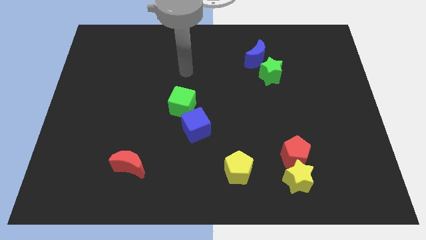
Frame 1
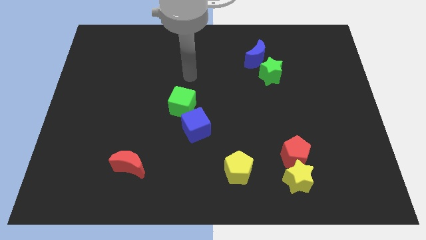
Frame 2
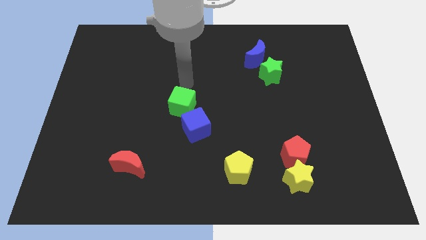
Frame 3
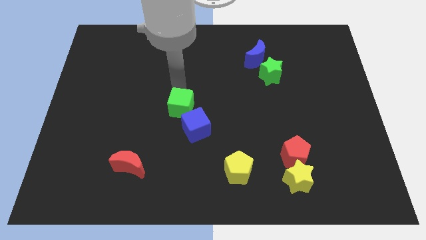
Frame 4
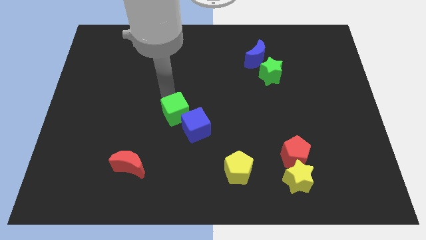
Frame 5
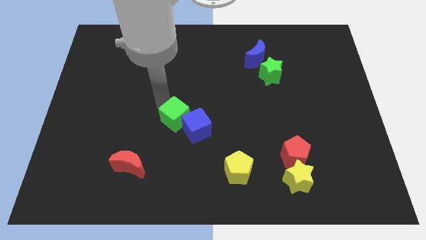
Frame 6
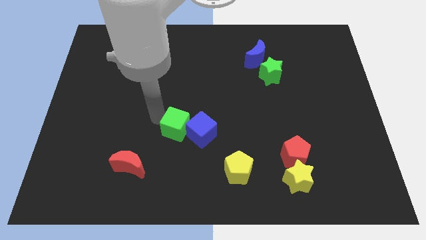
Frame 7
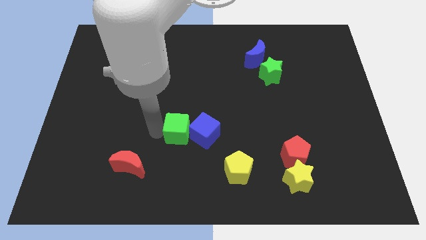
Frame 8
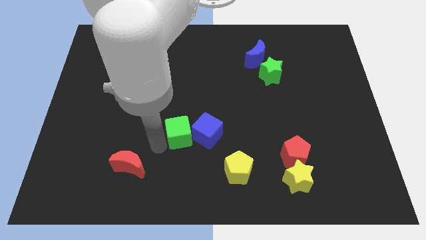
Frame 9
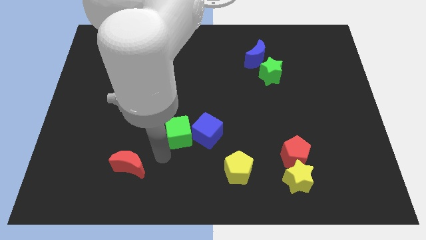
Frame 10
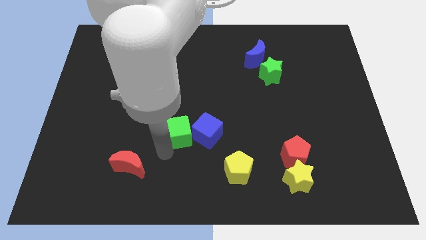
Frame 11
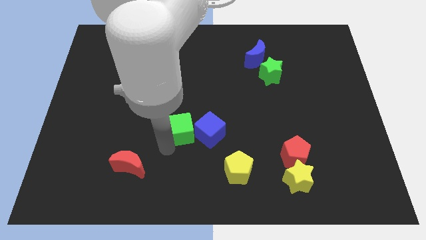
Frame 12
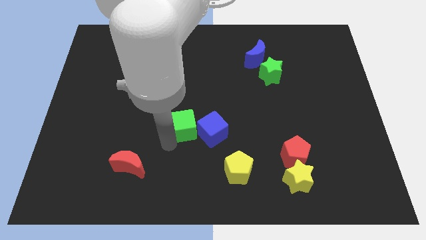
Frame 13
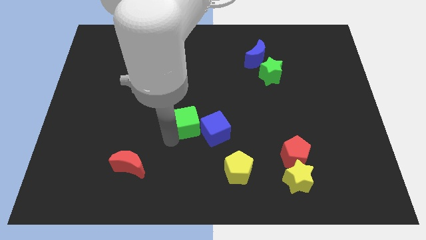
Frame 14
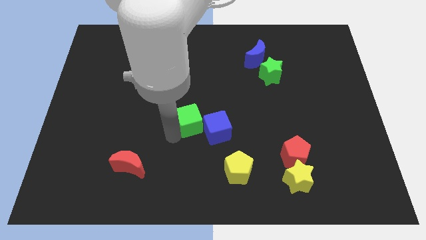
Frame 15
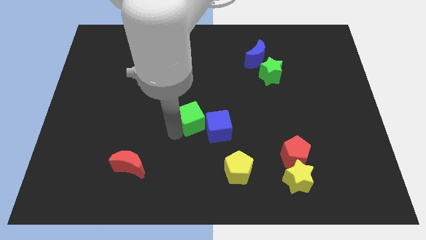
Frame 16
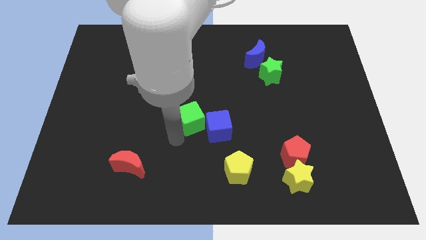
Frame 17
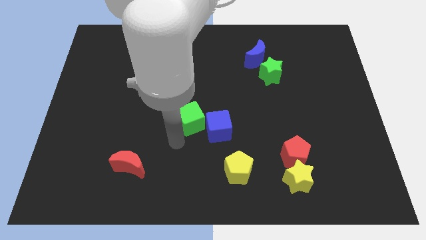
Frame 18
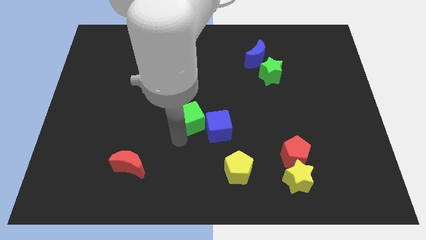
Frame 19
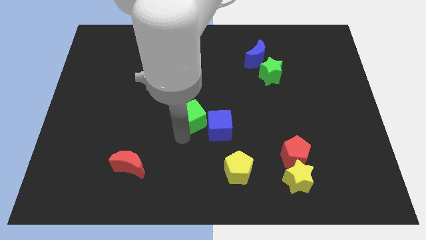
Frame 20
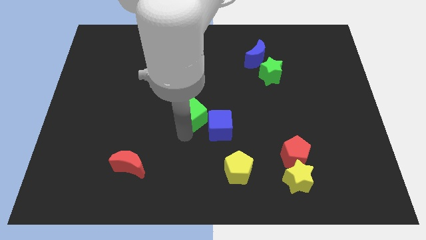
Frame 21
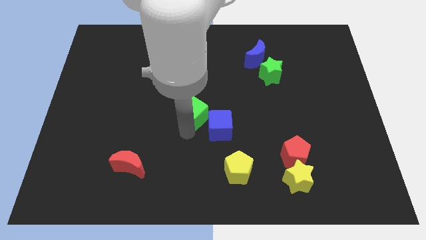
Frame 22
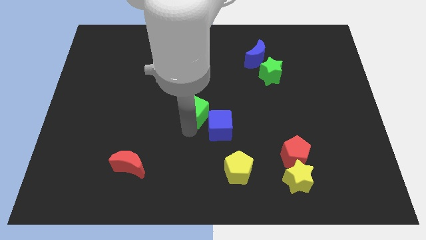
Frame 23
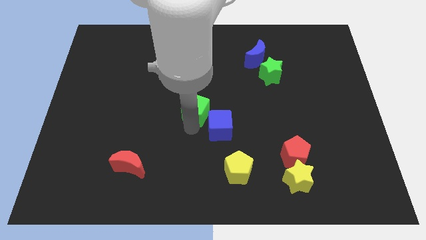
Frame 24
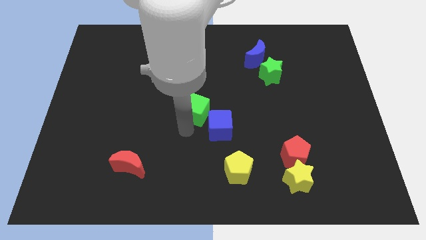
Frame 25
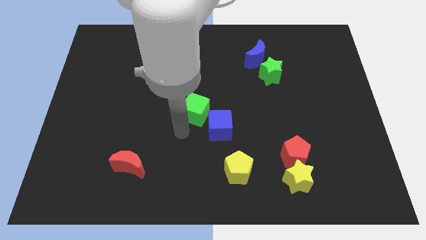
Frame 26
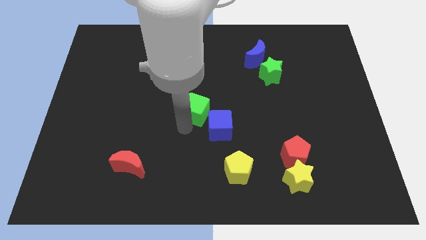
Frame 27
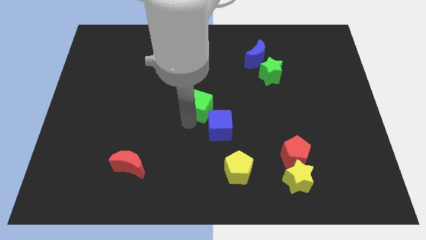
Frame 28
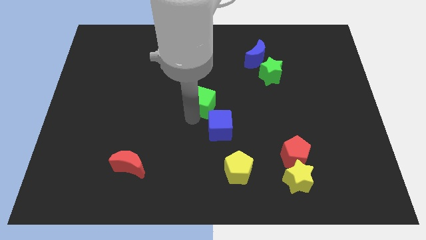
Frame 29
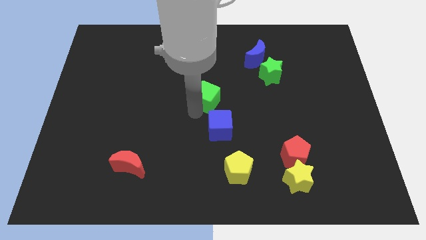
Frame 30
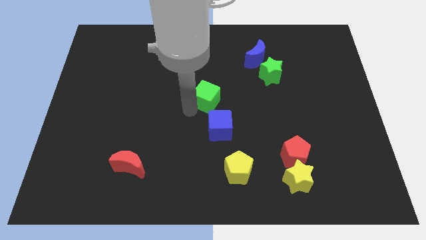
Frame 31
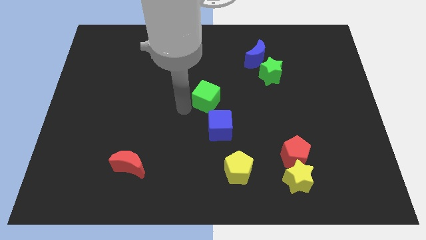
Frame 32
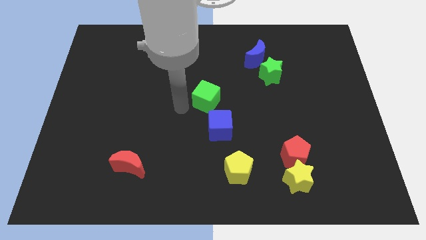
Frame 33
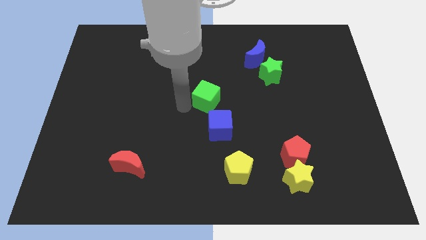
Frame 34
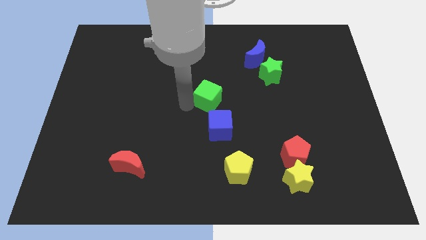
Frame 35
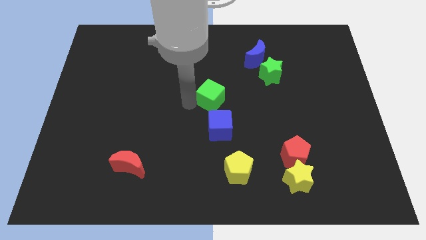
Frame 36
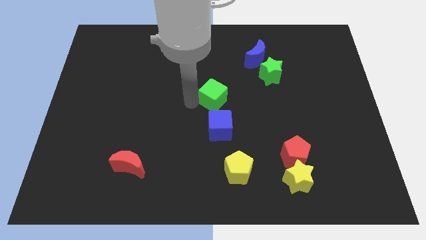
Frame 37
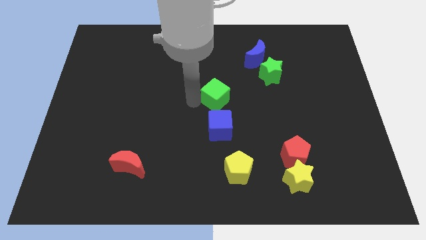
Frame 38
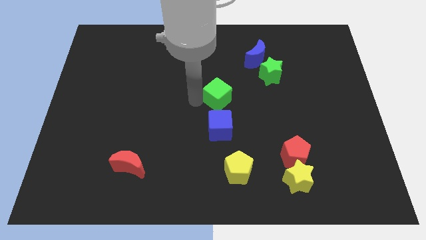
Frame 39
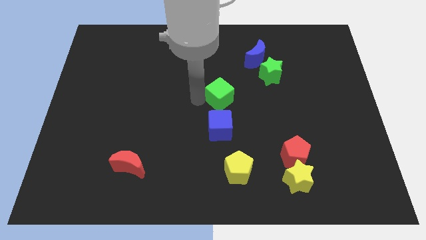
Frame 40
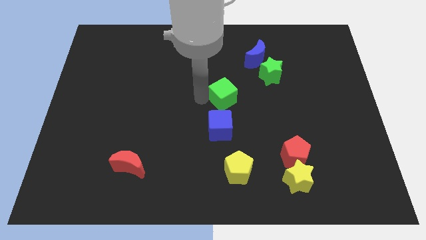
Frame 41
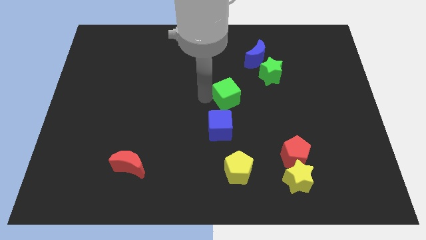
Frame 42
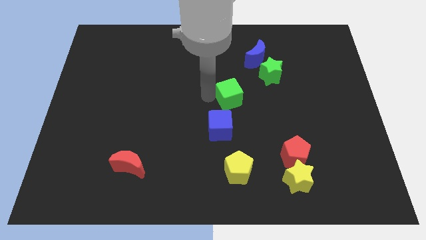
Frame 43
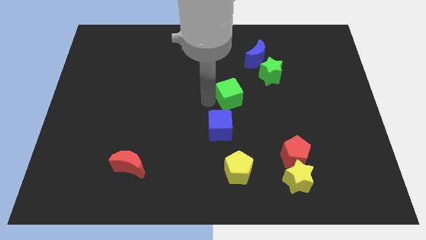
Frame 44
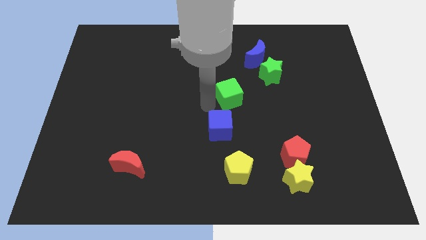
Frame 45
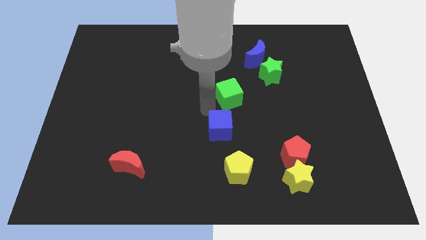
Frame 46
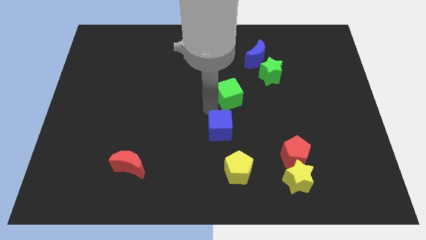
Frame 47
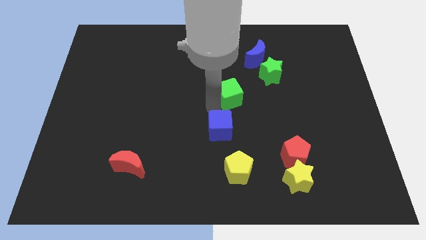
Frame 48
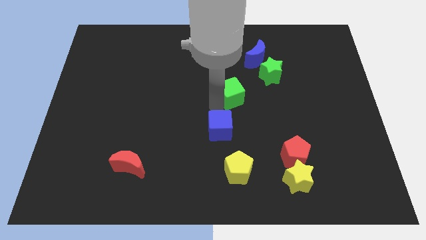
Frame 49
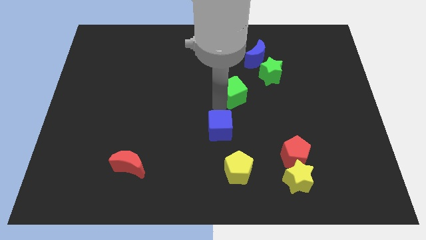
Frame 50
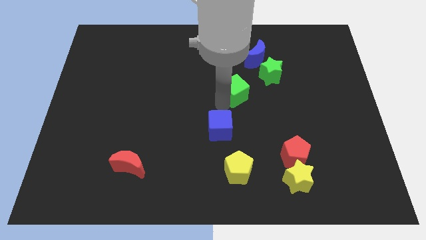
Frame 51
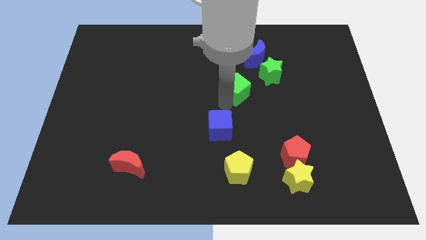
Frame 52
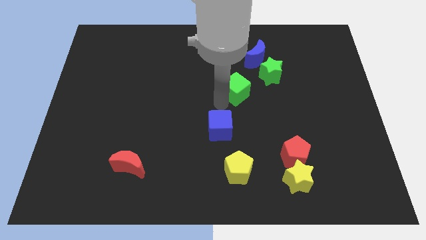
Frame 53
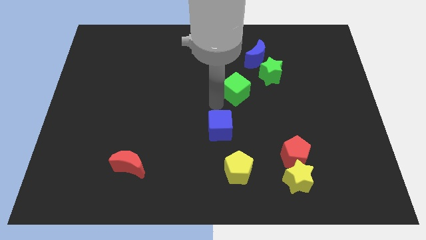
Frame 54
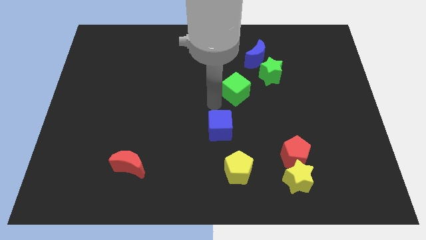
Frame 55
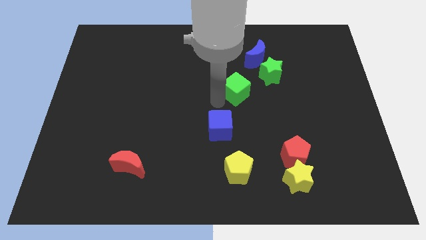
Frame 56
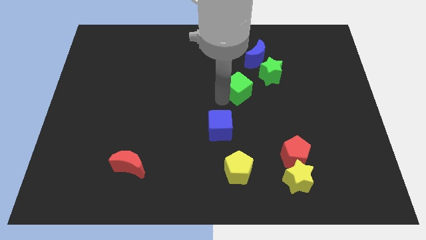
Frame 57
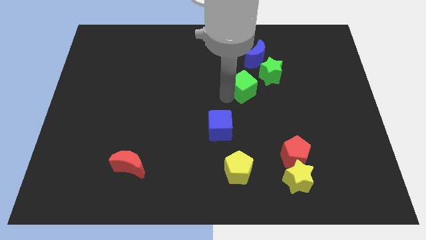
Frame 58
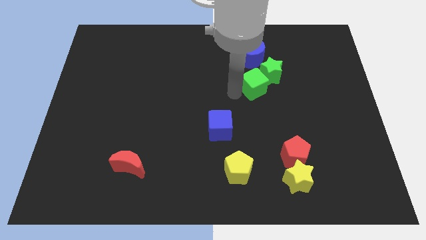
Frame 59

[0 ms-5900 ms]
slide the green cube close to the green star
